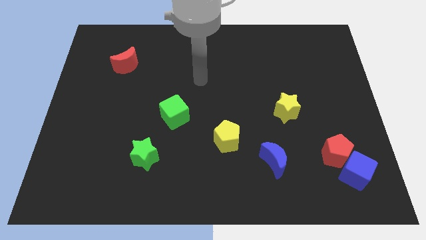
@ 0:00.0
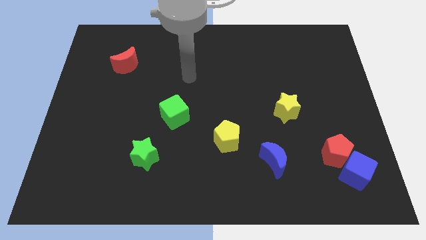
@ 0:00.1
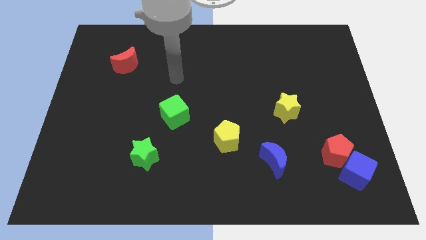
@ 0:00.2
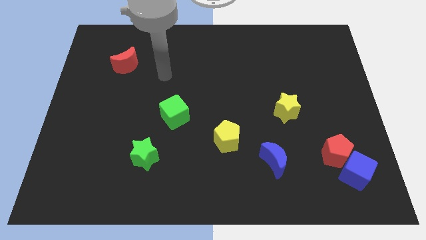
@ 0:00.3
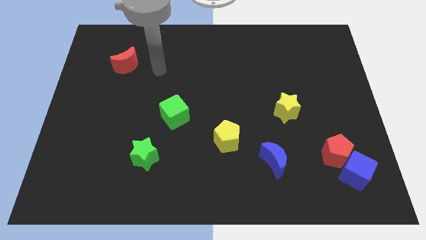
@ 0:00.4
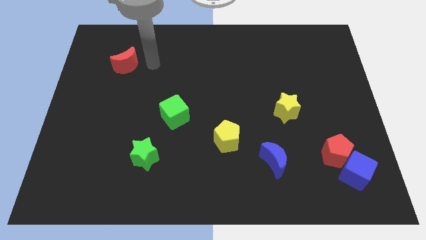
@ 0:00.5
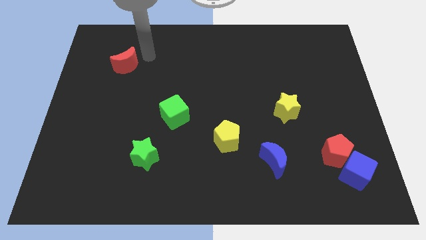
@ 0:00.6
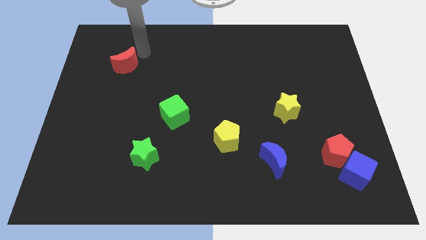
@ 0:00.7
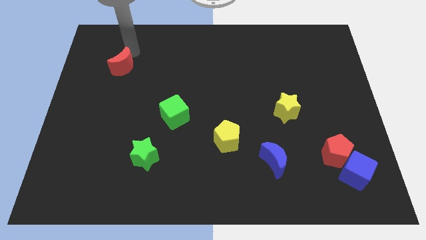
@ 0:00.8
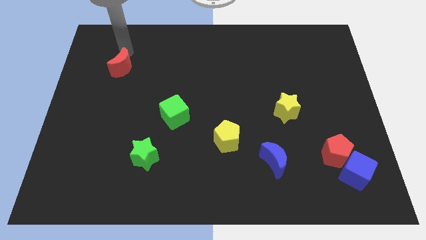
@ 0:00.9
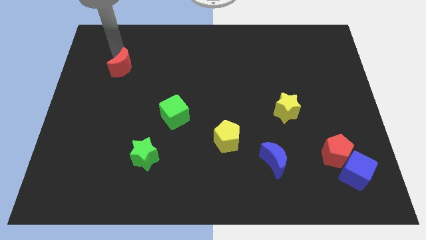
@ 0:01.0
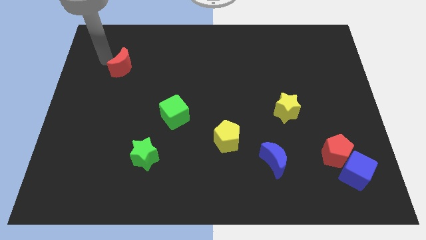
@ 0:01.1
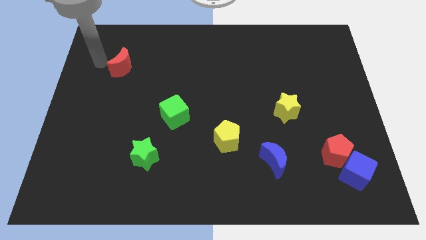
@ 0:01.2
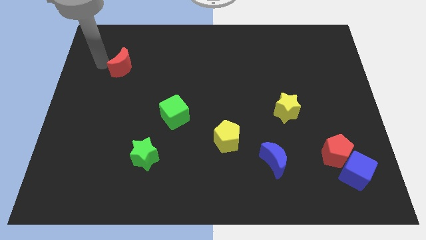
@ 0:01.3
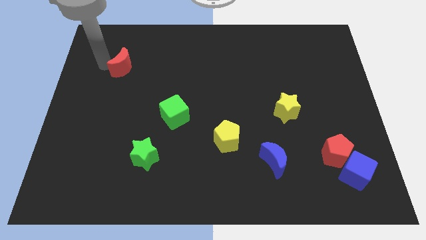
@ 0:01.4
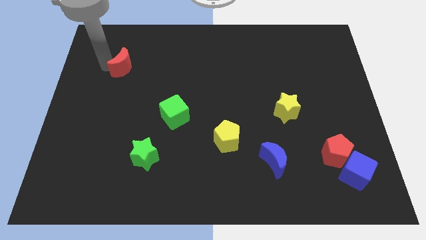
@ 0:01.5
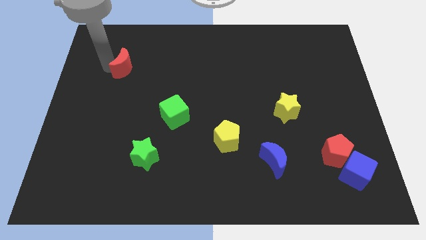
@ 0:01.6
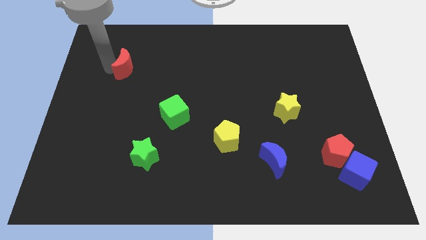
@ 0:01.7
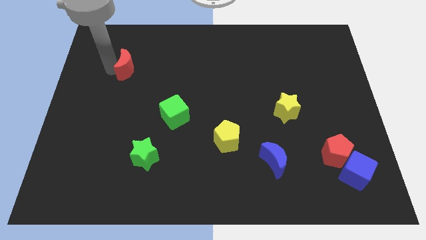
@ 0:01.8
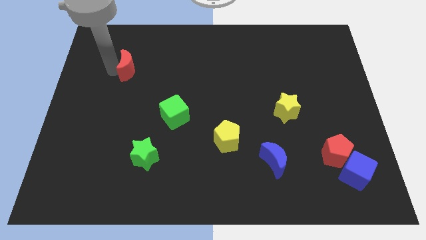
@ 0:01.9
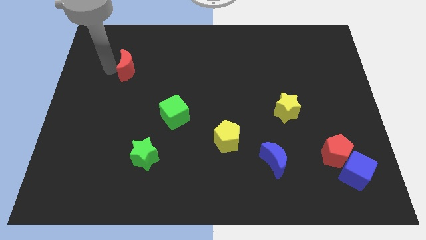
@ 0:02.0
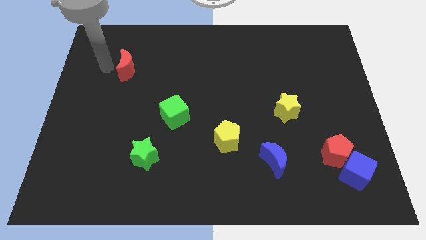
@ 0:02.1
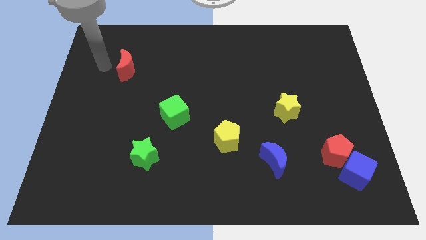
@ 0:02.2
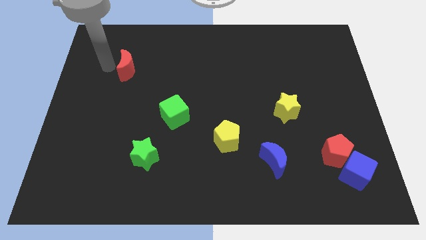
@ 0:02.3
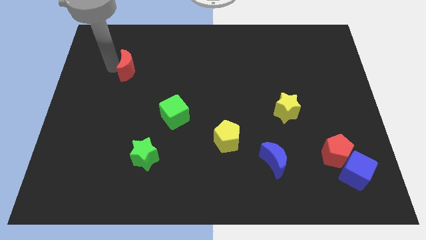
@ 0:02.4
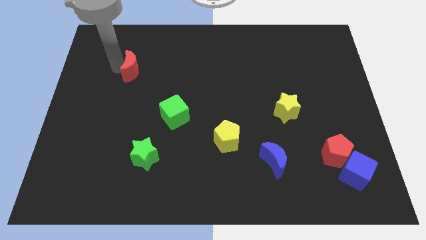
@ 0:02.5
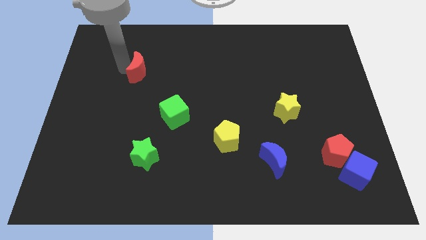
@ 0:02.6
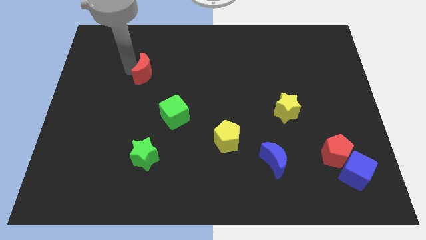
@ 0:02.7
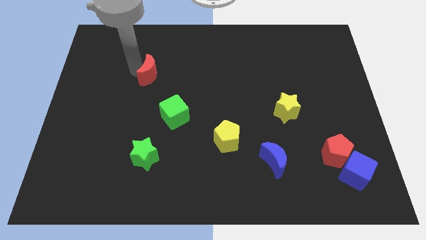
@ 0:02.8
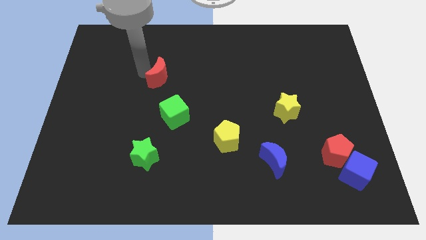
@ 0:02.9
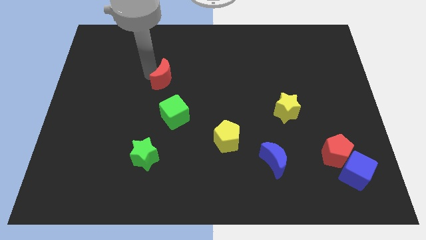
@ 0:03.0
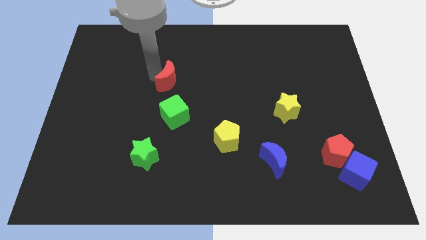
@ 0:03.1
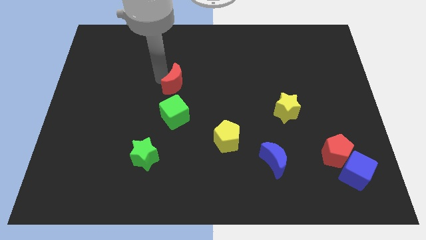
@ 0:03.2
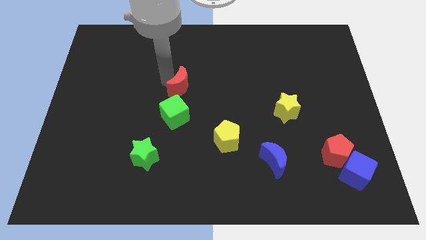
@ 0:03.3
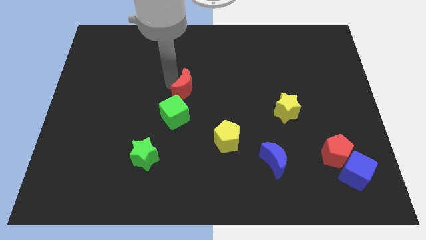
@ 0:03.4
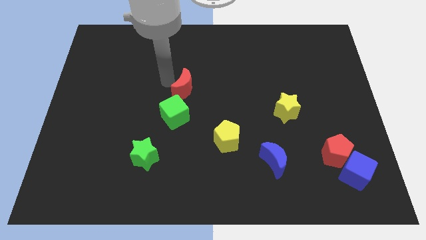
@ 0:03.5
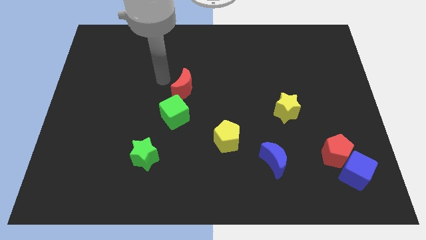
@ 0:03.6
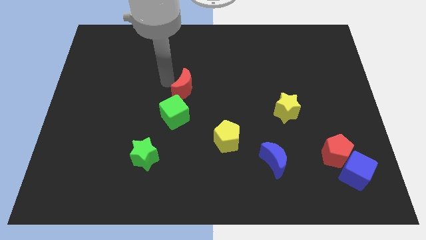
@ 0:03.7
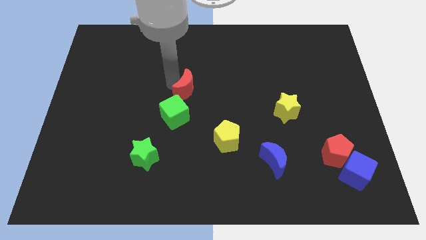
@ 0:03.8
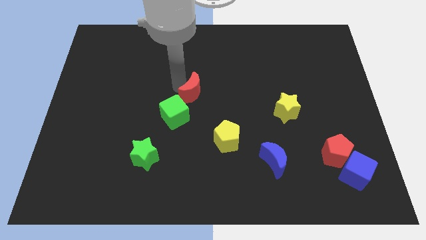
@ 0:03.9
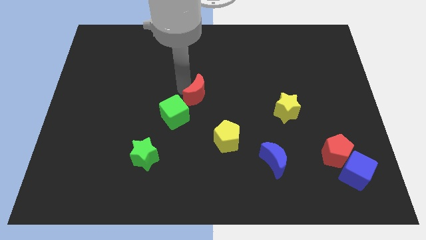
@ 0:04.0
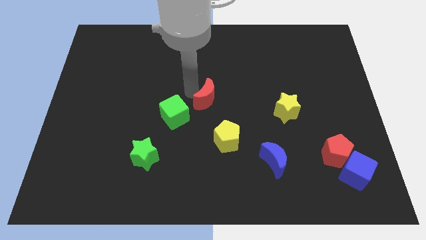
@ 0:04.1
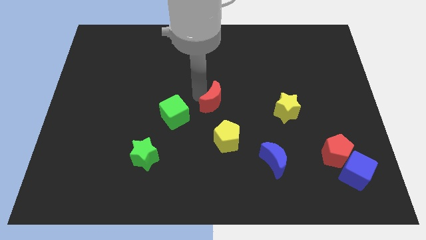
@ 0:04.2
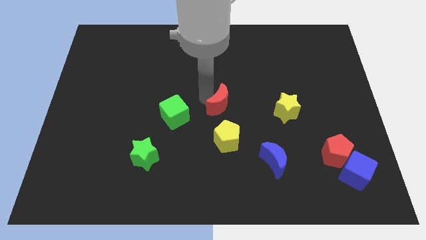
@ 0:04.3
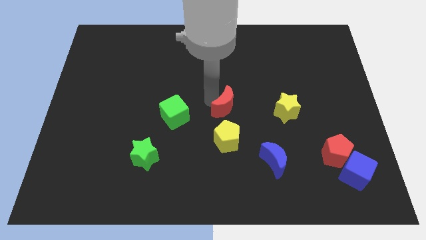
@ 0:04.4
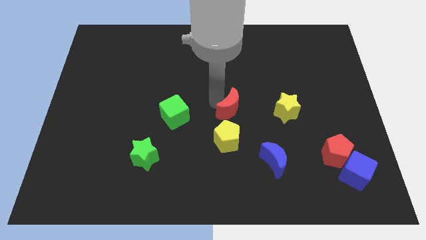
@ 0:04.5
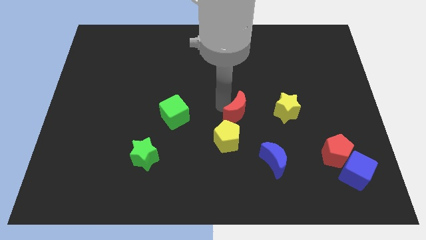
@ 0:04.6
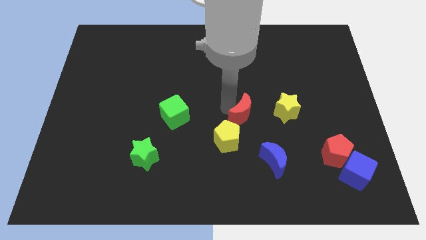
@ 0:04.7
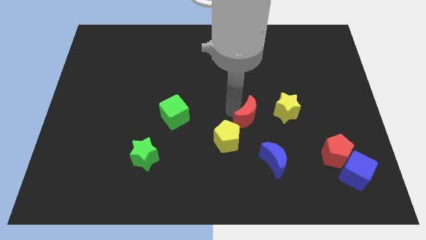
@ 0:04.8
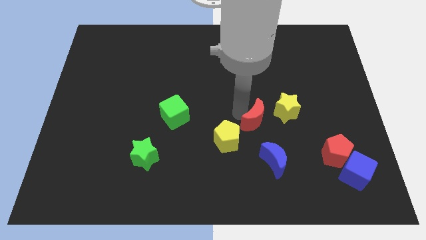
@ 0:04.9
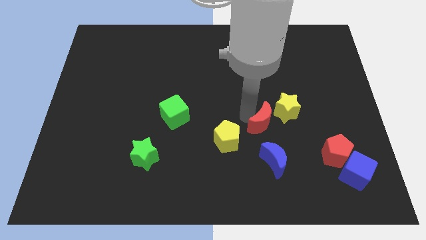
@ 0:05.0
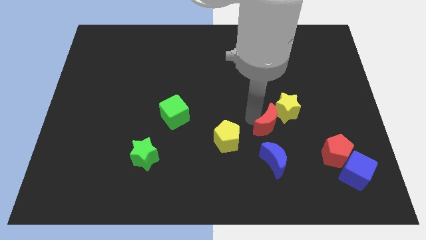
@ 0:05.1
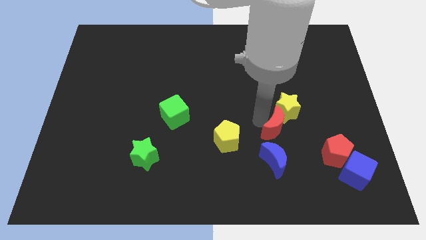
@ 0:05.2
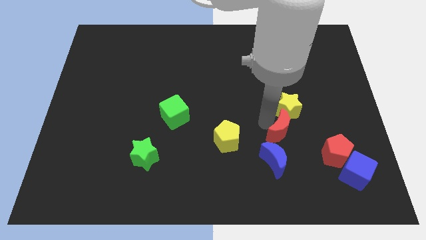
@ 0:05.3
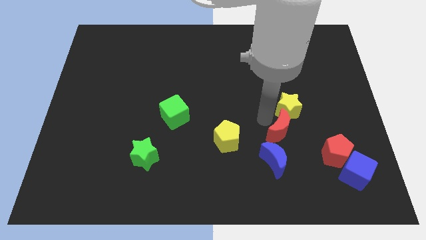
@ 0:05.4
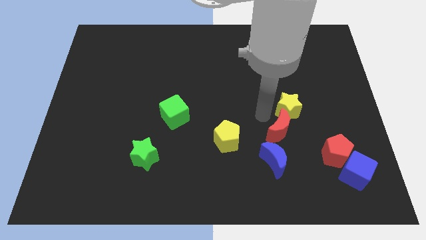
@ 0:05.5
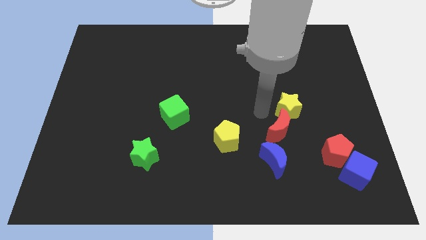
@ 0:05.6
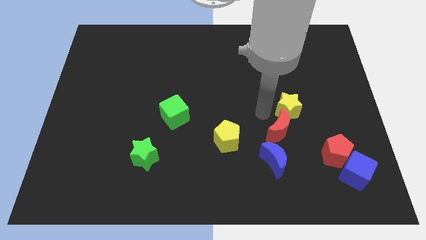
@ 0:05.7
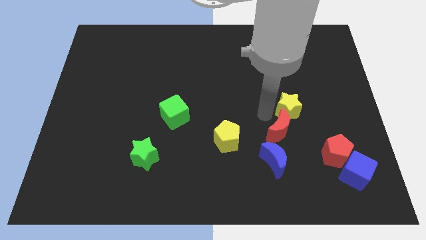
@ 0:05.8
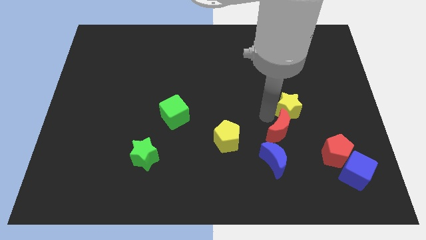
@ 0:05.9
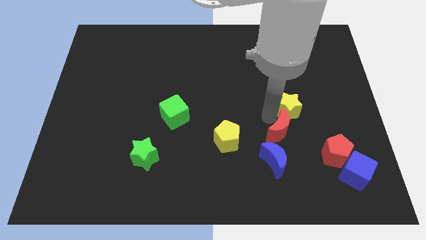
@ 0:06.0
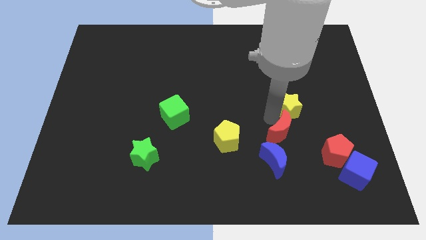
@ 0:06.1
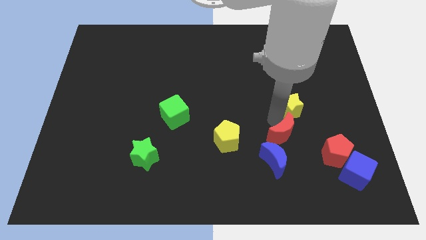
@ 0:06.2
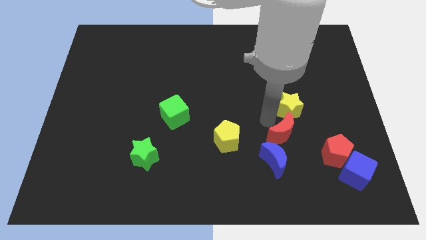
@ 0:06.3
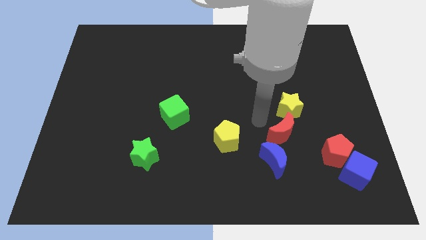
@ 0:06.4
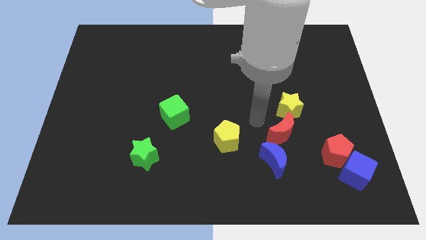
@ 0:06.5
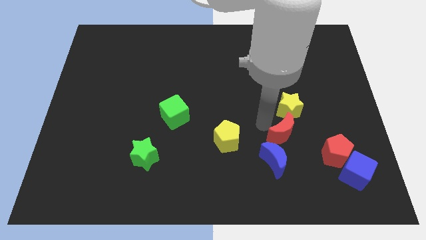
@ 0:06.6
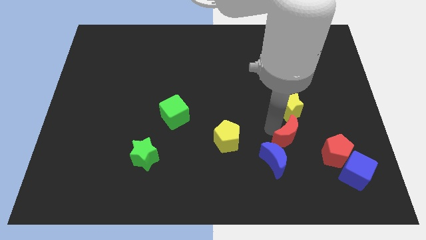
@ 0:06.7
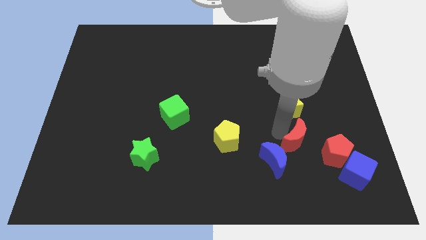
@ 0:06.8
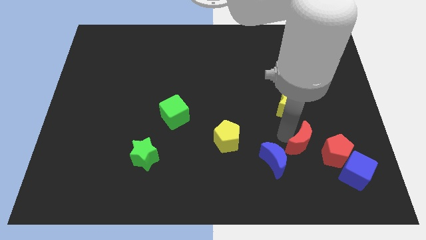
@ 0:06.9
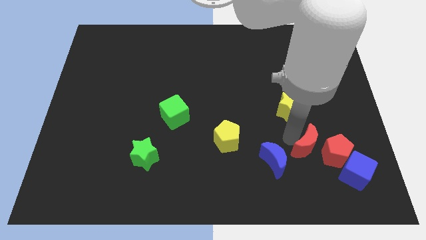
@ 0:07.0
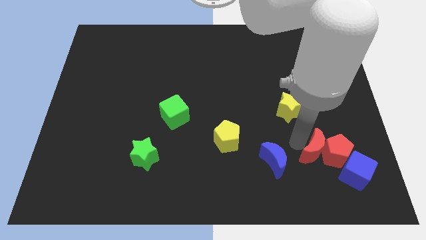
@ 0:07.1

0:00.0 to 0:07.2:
push the red moon next to the red pentagon
